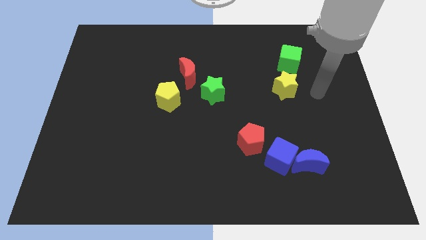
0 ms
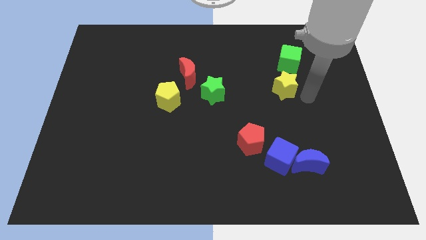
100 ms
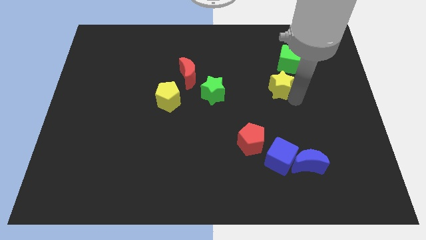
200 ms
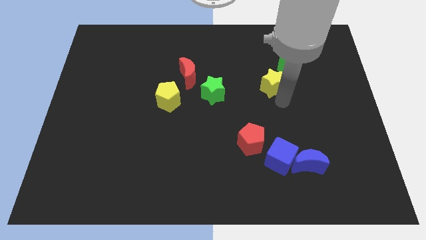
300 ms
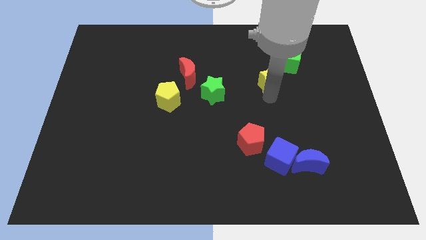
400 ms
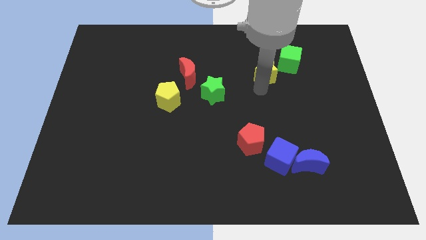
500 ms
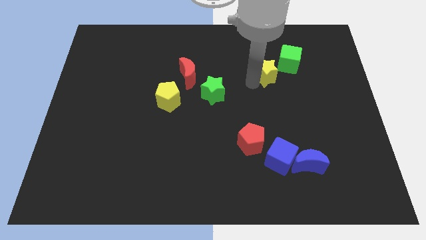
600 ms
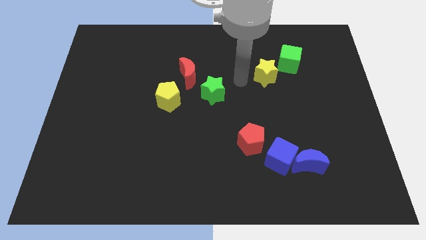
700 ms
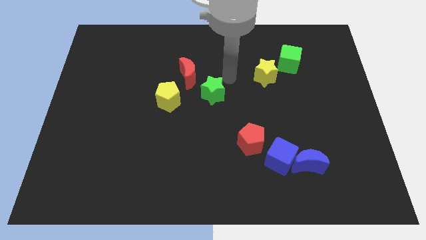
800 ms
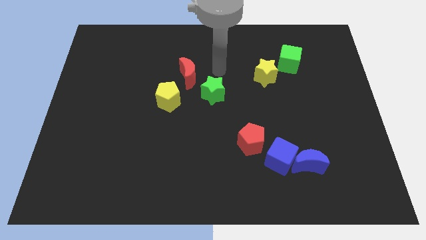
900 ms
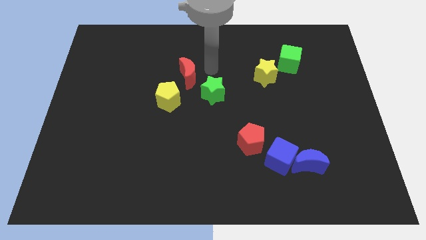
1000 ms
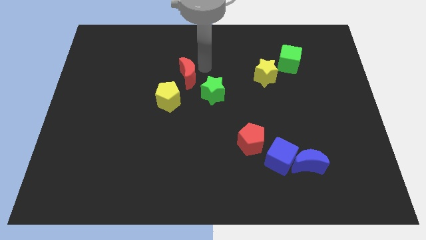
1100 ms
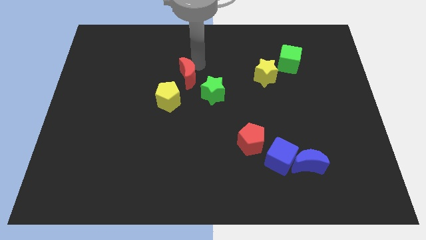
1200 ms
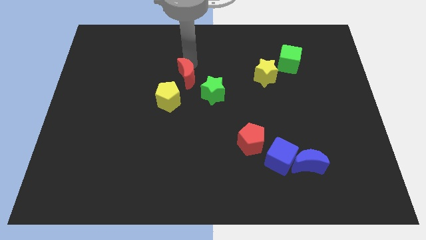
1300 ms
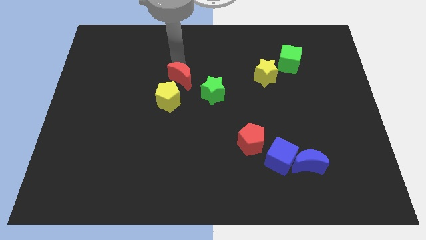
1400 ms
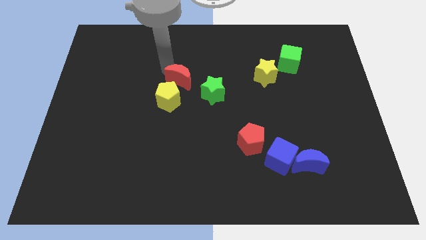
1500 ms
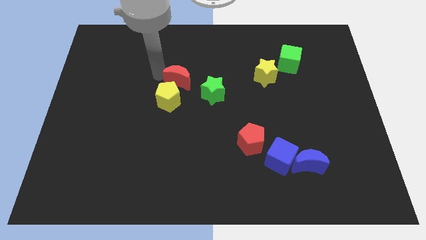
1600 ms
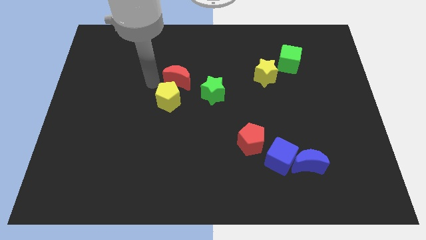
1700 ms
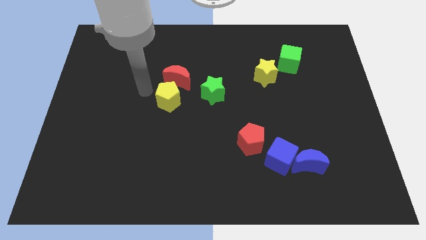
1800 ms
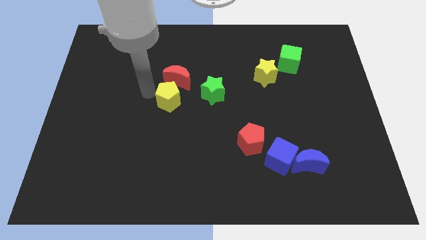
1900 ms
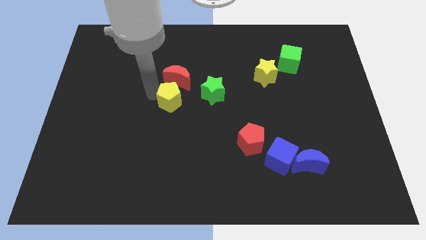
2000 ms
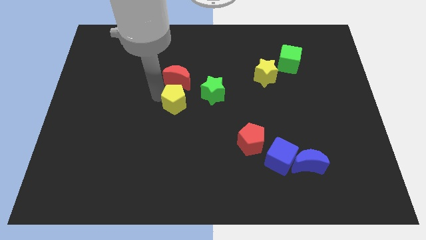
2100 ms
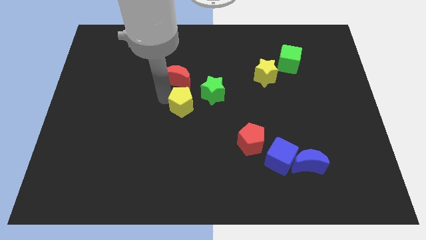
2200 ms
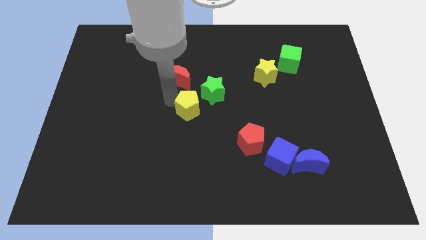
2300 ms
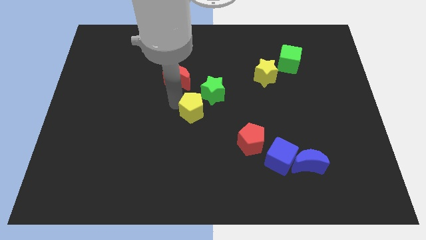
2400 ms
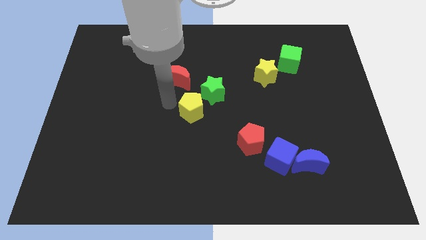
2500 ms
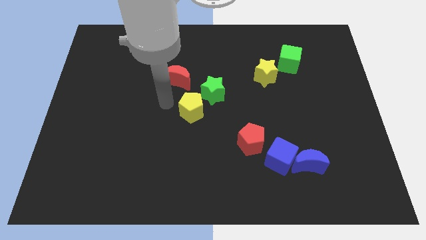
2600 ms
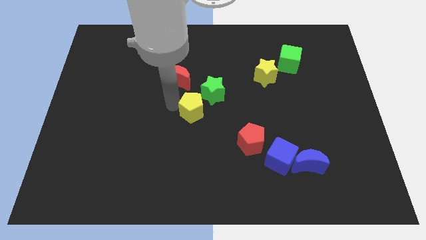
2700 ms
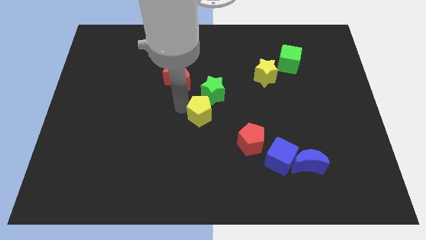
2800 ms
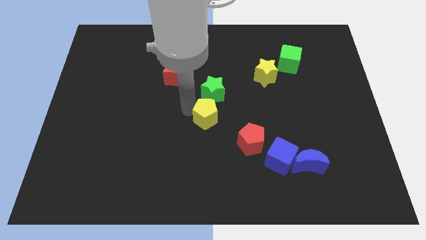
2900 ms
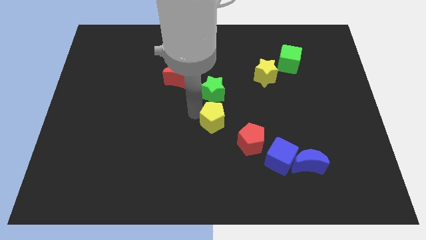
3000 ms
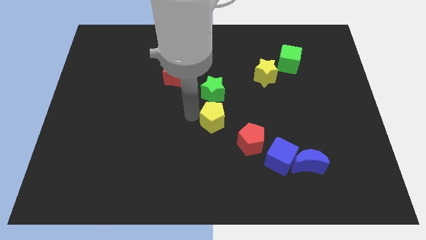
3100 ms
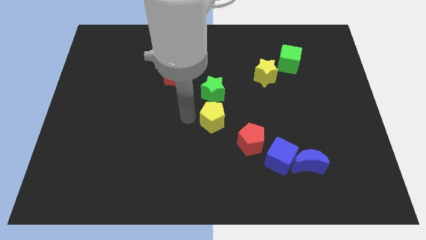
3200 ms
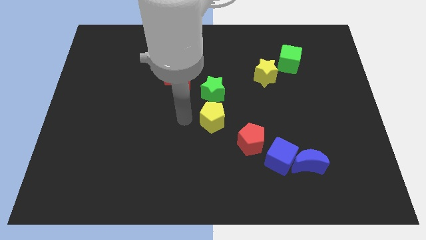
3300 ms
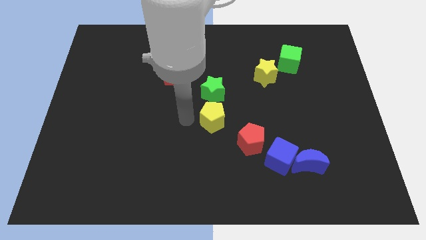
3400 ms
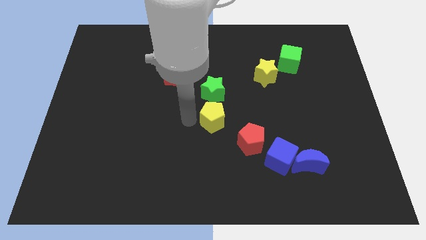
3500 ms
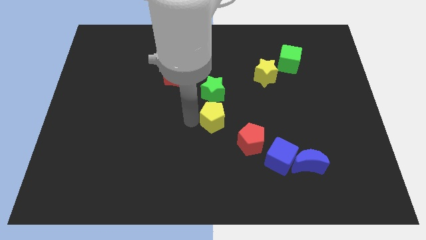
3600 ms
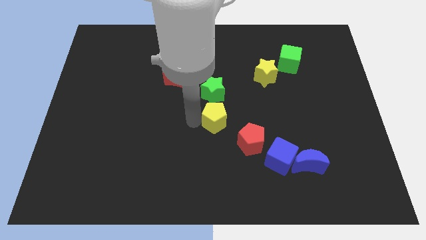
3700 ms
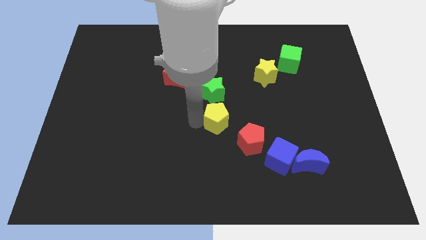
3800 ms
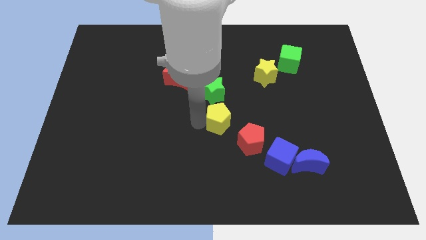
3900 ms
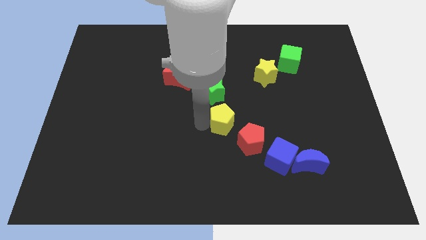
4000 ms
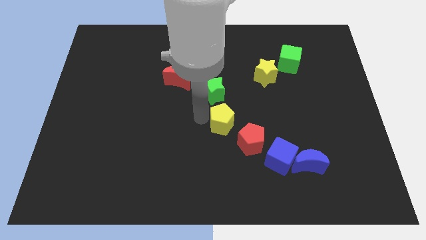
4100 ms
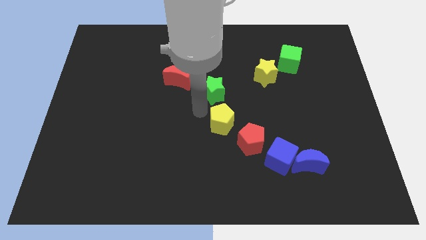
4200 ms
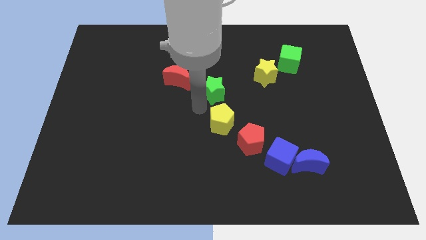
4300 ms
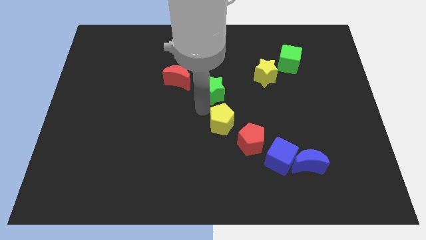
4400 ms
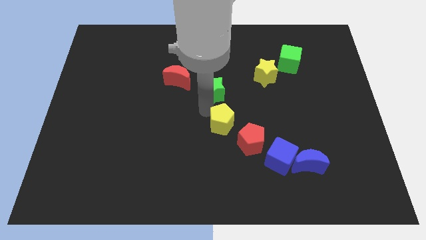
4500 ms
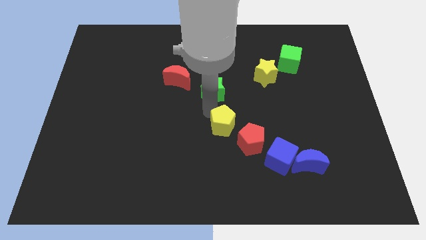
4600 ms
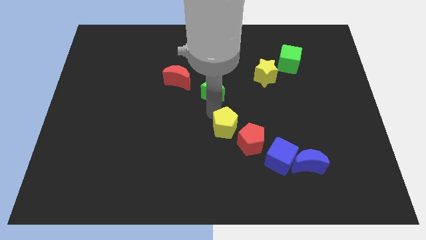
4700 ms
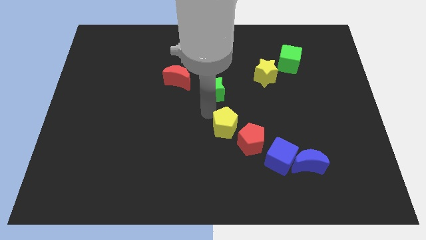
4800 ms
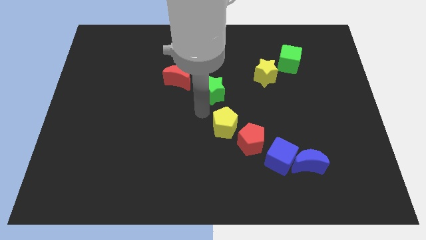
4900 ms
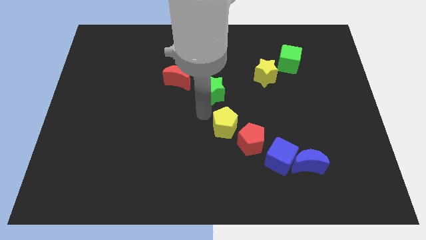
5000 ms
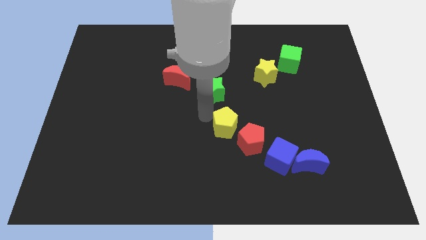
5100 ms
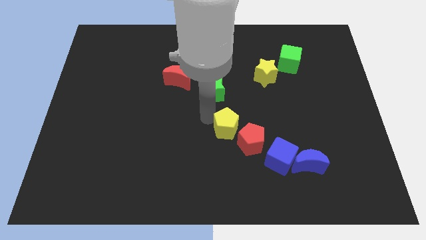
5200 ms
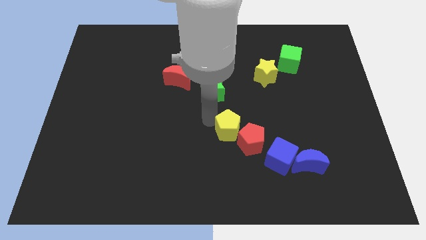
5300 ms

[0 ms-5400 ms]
push the yellow pentagon next to the red pentagon

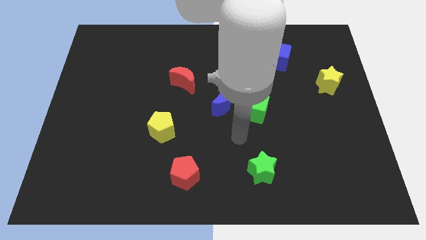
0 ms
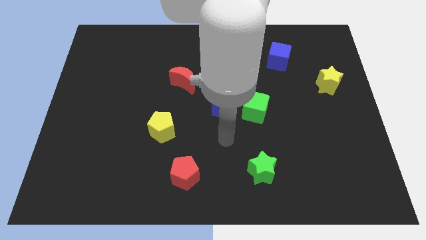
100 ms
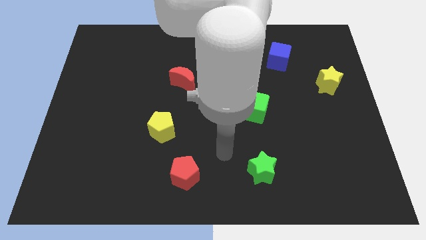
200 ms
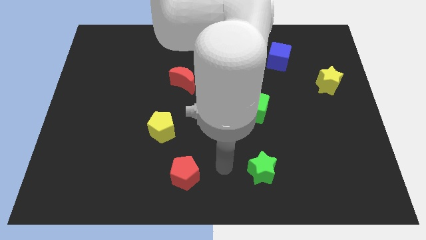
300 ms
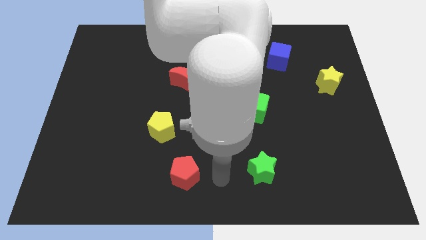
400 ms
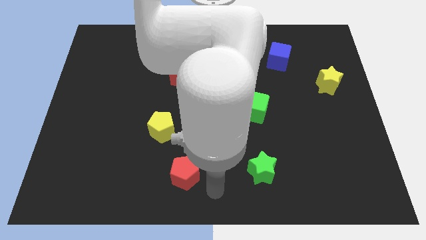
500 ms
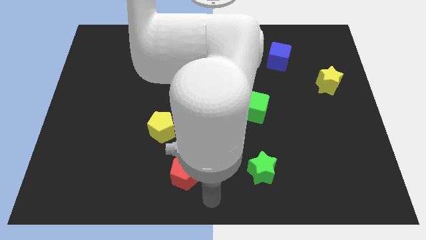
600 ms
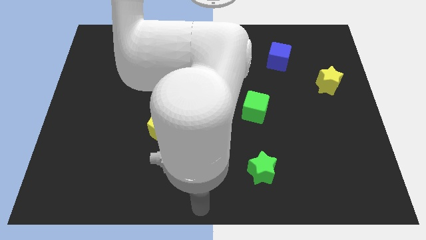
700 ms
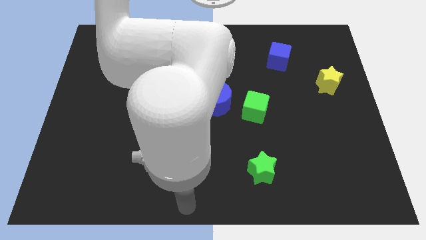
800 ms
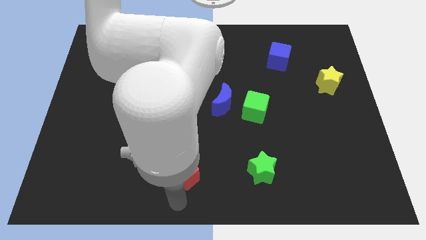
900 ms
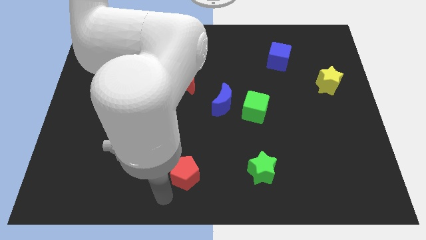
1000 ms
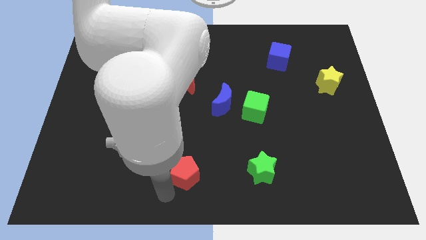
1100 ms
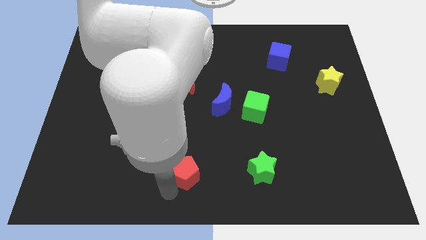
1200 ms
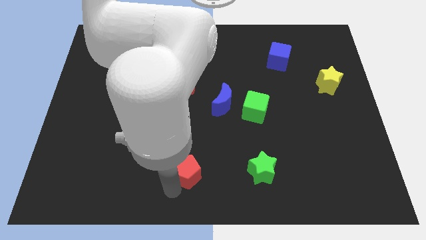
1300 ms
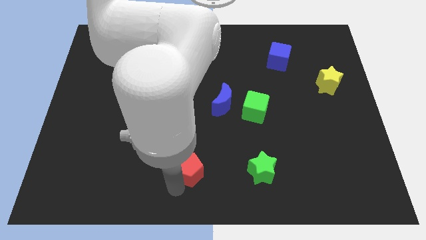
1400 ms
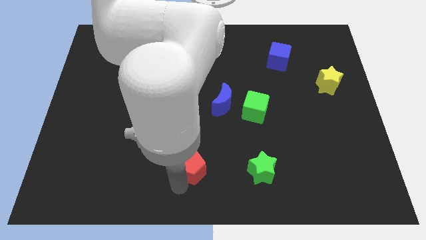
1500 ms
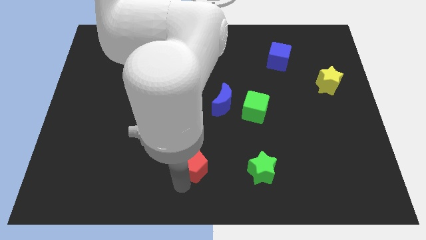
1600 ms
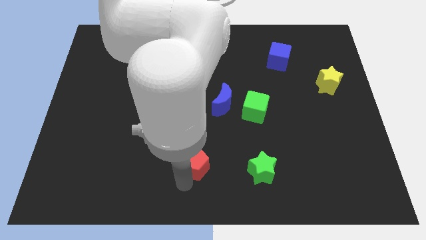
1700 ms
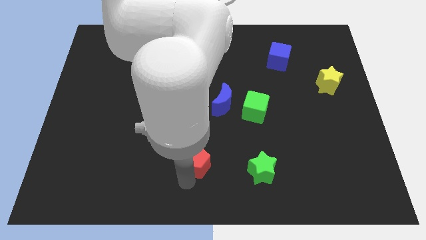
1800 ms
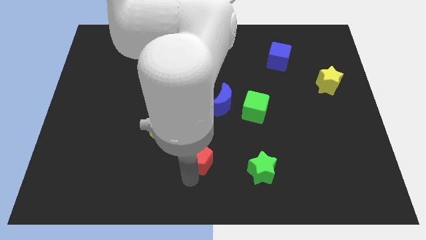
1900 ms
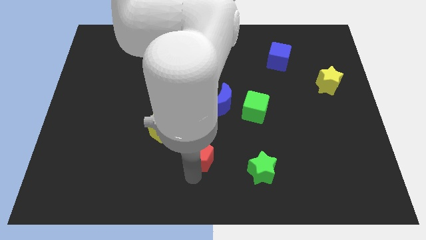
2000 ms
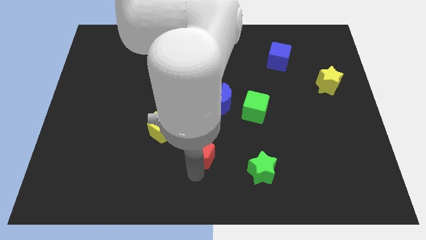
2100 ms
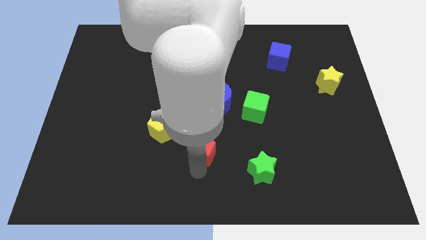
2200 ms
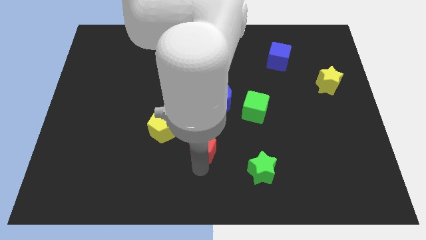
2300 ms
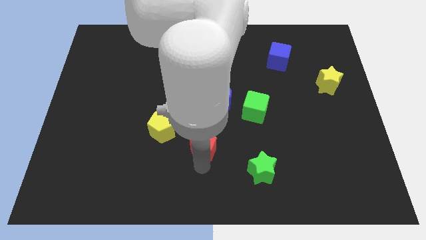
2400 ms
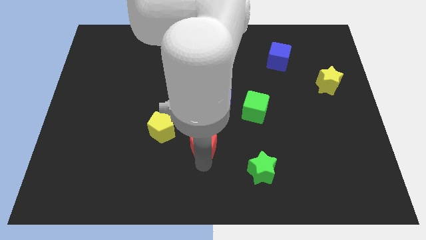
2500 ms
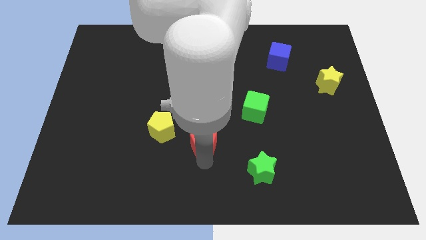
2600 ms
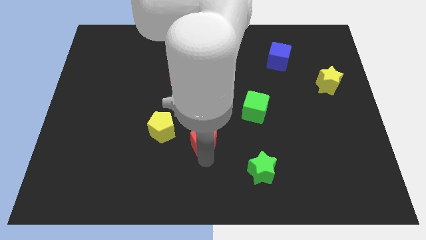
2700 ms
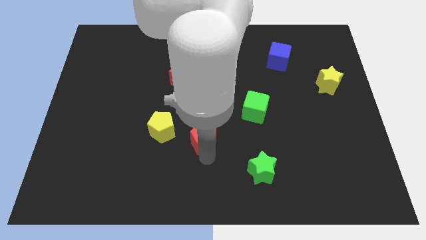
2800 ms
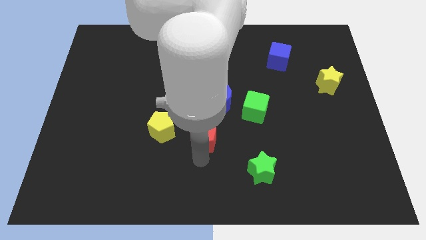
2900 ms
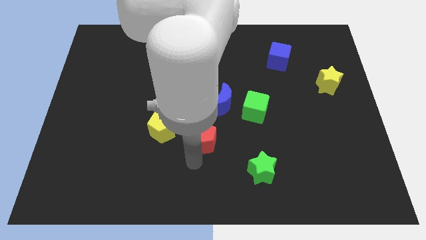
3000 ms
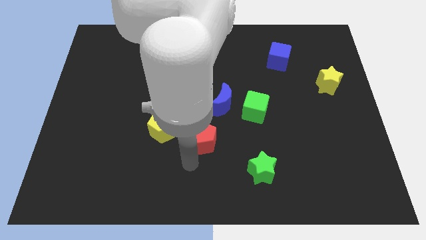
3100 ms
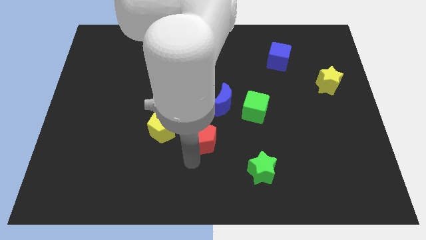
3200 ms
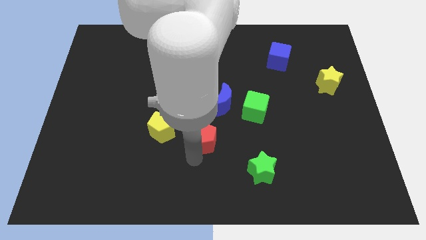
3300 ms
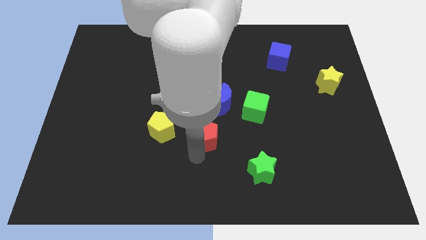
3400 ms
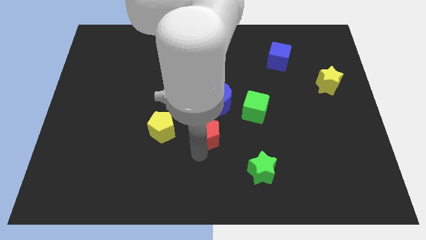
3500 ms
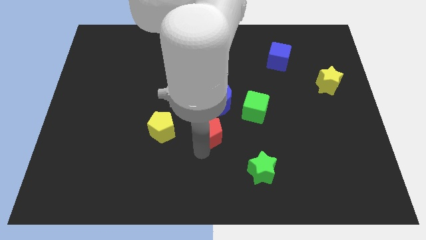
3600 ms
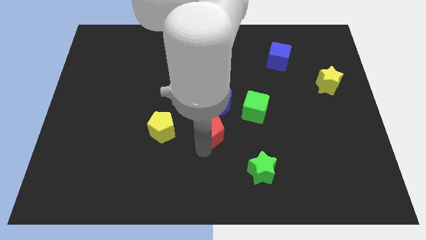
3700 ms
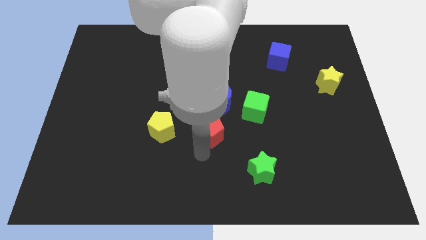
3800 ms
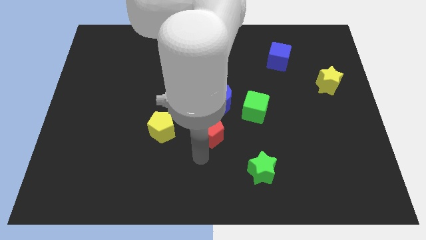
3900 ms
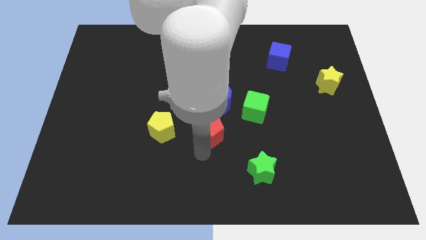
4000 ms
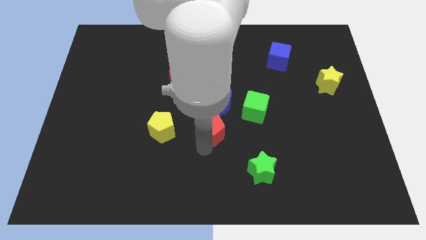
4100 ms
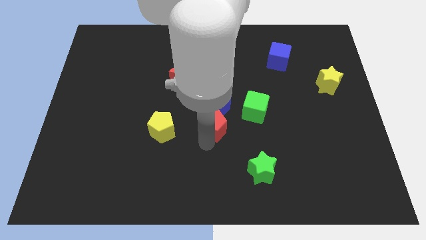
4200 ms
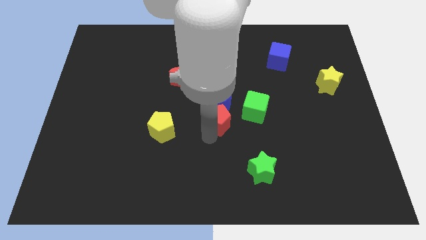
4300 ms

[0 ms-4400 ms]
slide the red pentagon to the blue moon
